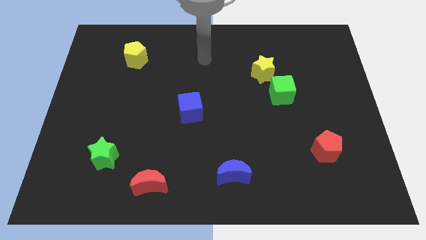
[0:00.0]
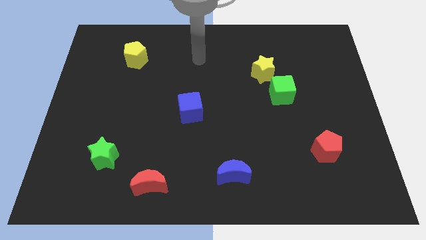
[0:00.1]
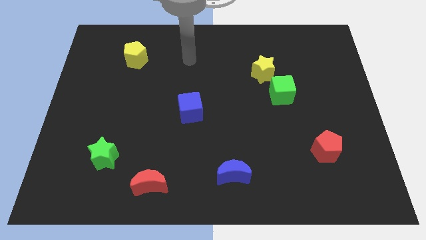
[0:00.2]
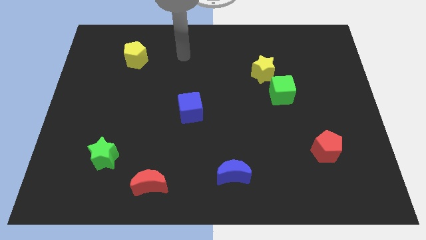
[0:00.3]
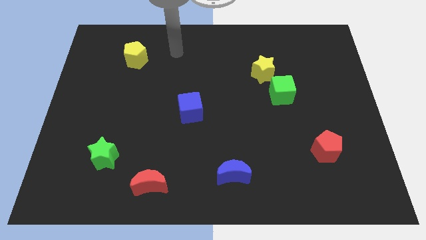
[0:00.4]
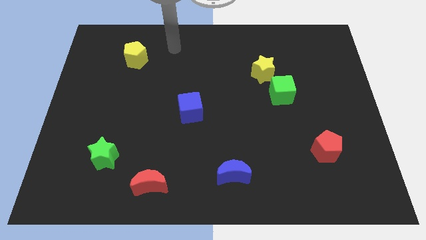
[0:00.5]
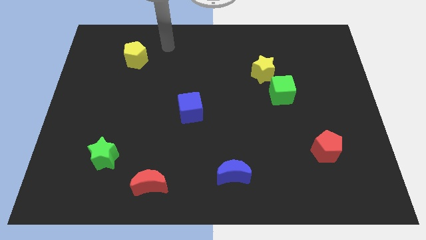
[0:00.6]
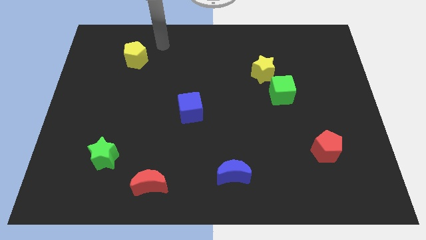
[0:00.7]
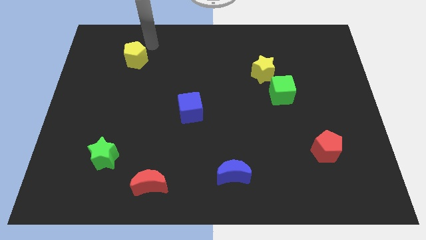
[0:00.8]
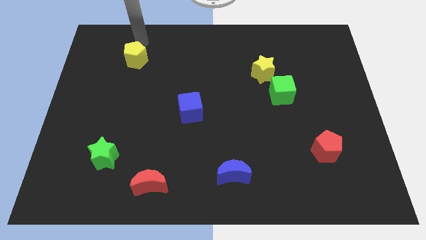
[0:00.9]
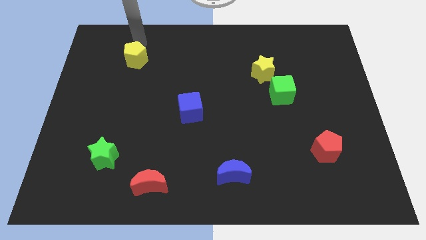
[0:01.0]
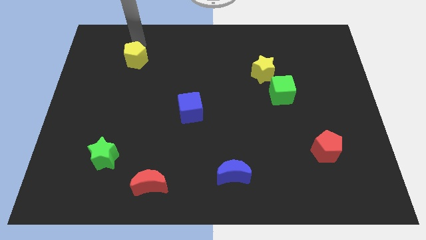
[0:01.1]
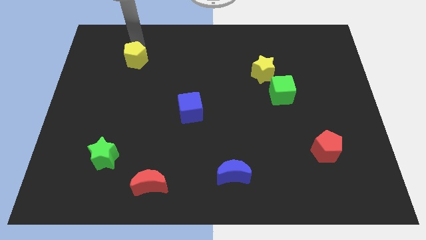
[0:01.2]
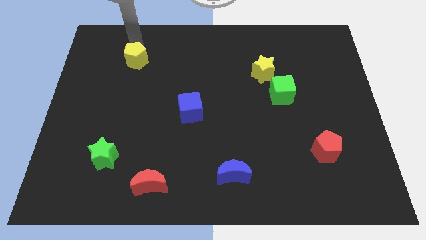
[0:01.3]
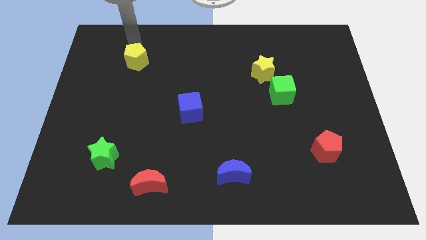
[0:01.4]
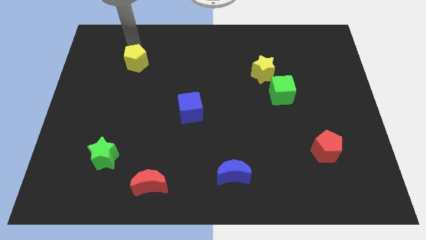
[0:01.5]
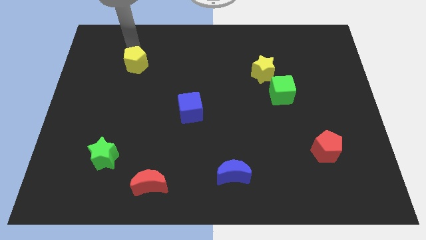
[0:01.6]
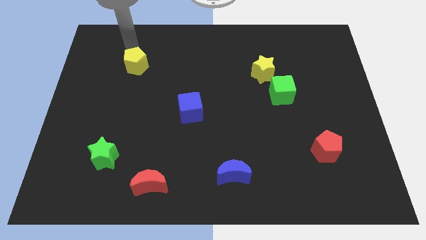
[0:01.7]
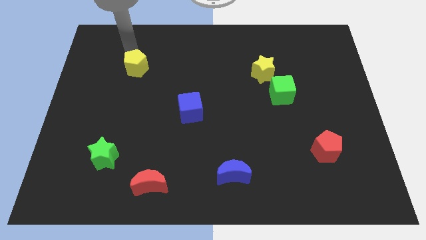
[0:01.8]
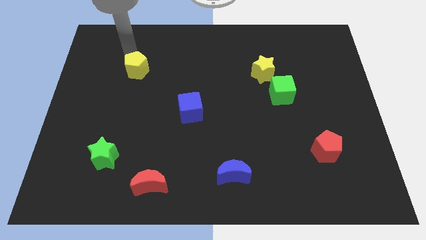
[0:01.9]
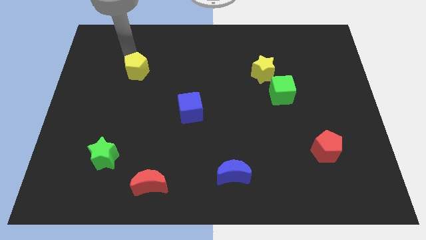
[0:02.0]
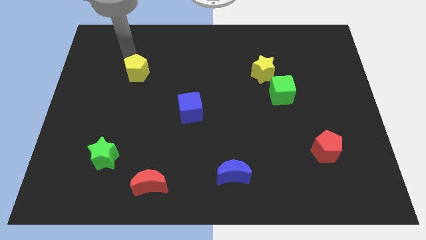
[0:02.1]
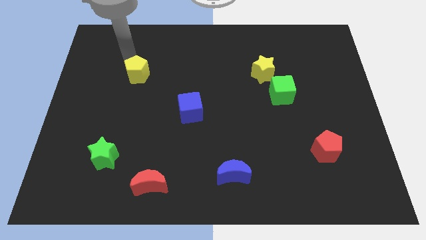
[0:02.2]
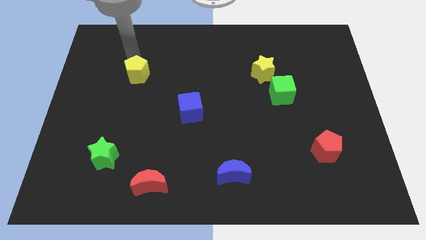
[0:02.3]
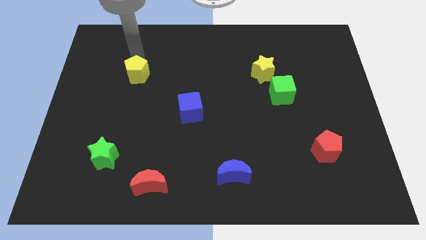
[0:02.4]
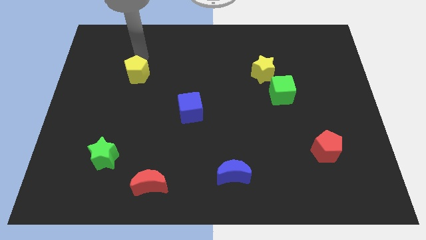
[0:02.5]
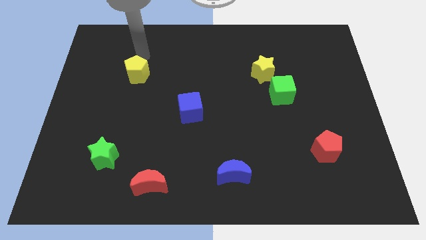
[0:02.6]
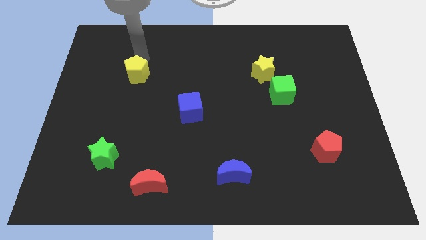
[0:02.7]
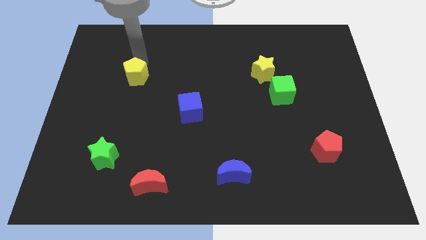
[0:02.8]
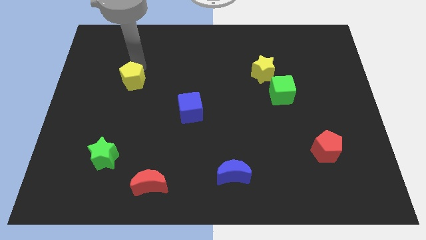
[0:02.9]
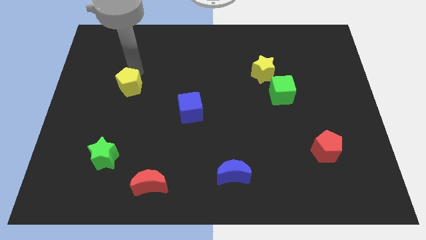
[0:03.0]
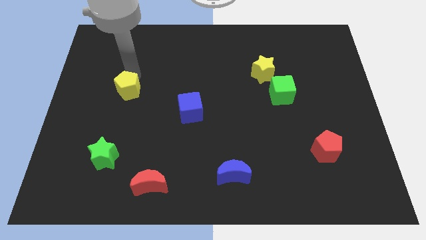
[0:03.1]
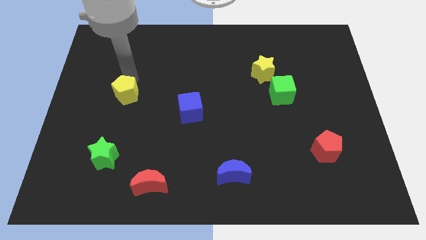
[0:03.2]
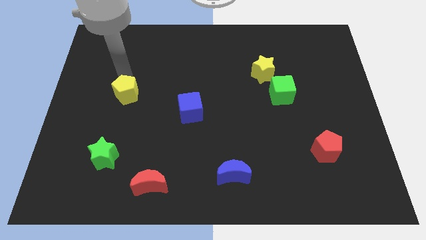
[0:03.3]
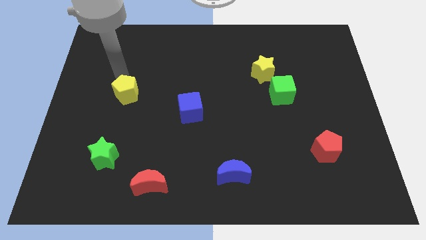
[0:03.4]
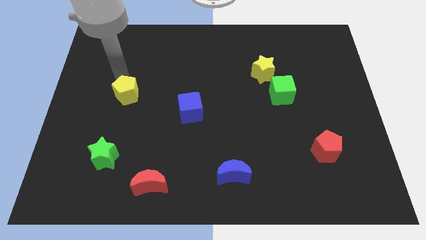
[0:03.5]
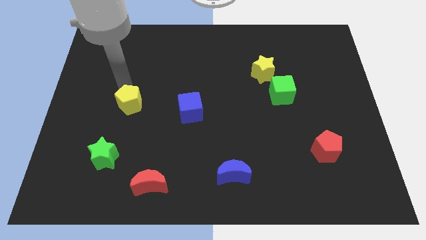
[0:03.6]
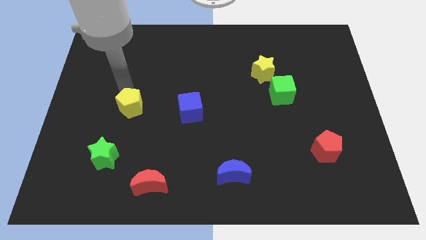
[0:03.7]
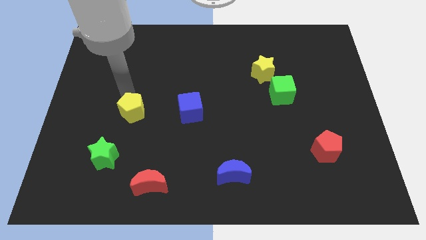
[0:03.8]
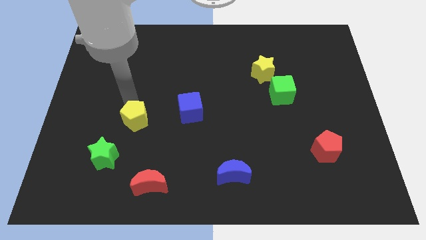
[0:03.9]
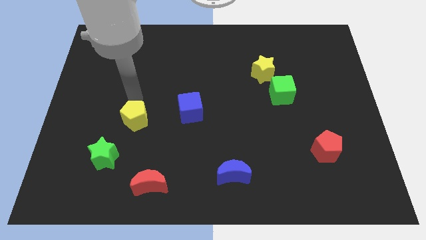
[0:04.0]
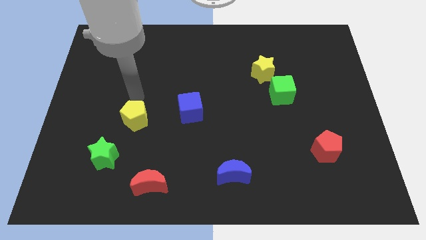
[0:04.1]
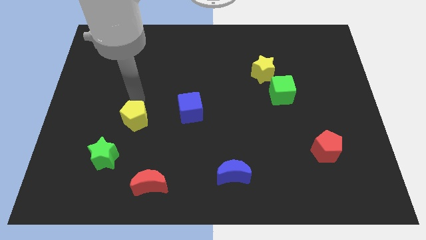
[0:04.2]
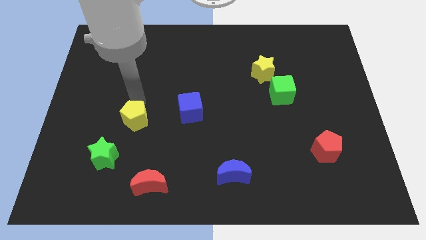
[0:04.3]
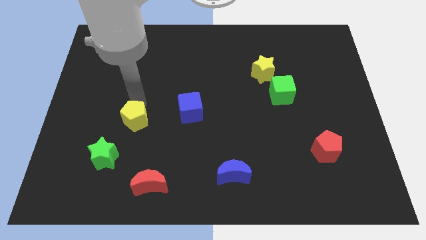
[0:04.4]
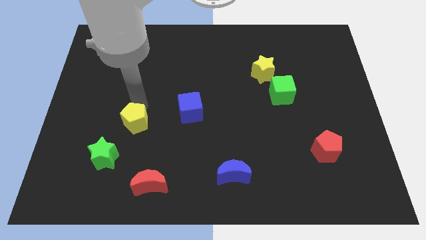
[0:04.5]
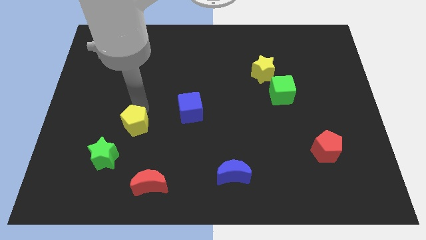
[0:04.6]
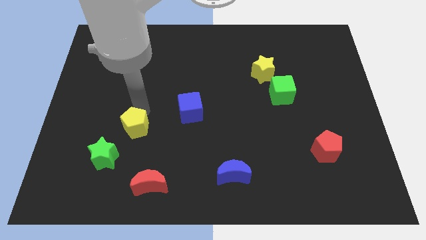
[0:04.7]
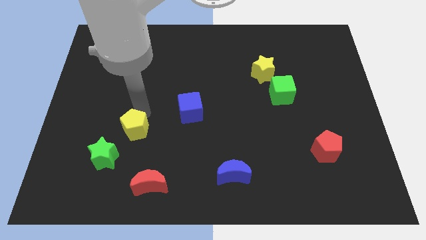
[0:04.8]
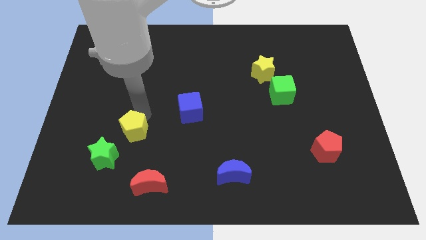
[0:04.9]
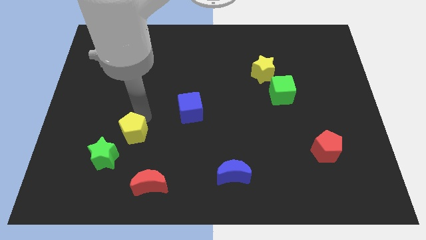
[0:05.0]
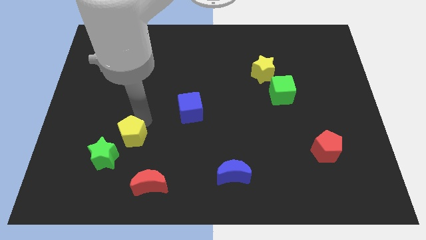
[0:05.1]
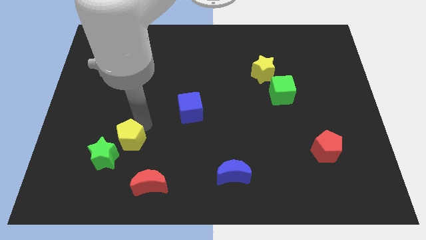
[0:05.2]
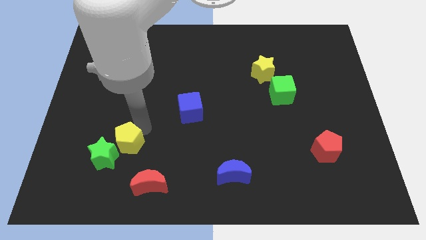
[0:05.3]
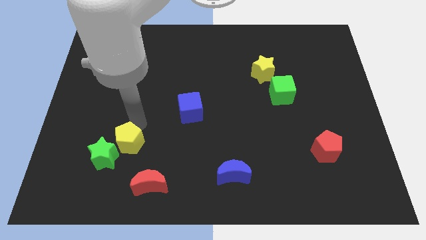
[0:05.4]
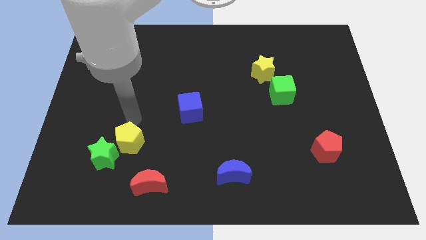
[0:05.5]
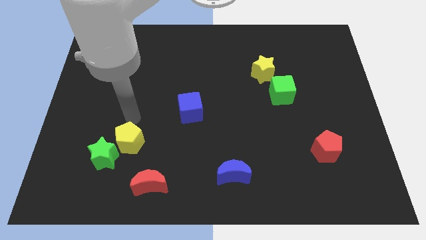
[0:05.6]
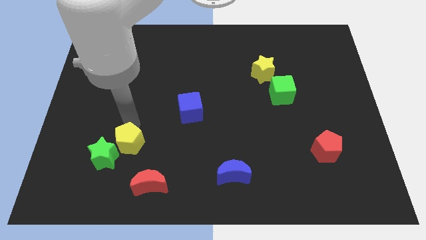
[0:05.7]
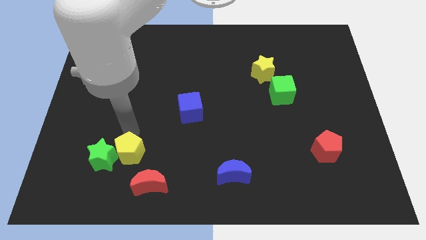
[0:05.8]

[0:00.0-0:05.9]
move the yellow pentagon diagonally down and to the right of the green star

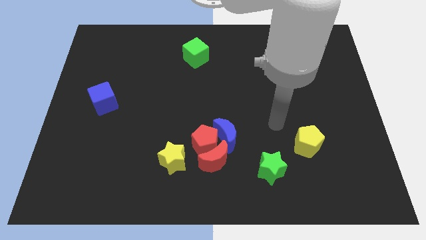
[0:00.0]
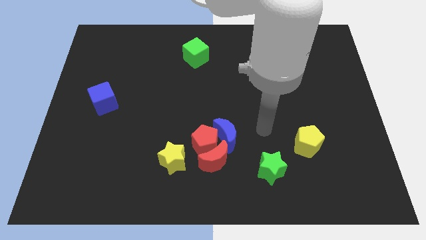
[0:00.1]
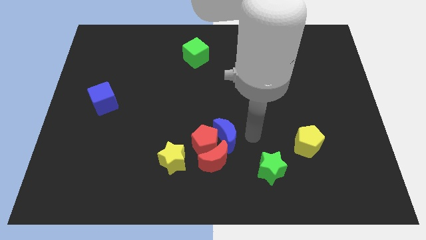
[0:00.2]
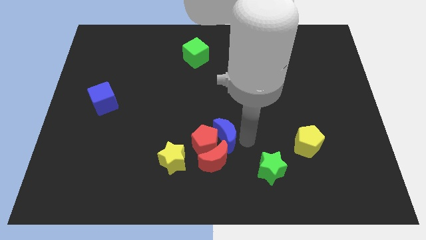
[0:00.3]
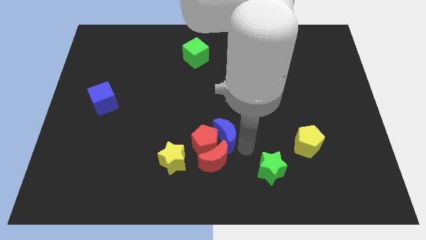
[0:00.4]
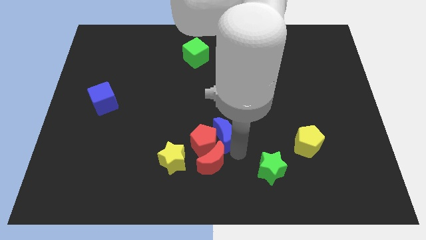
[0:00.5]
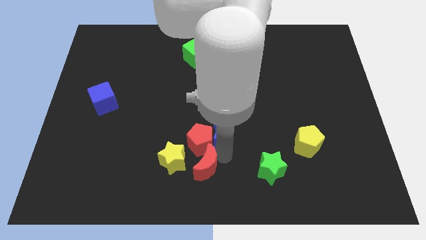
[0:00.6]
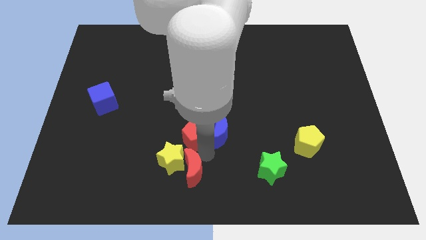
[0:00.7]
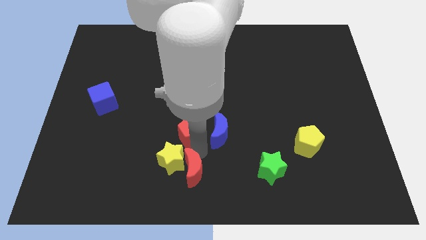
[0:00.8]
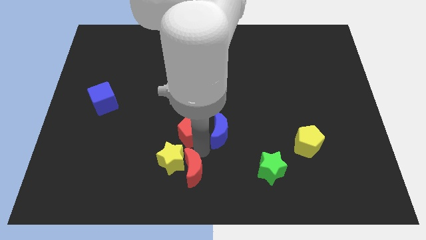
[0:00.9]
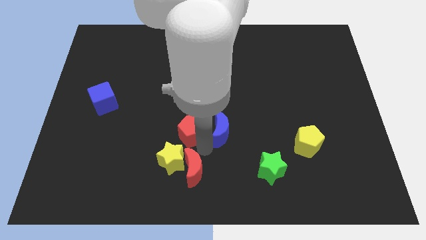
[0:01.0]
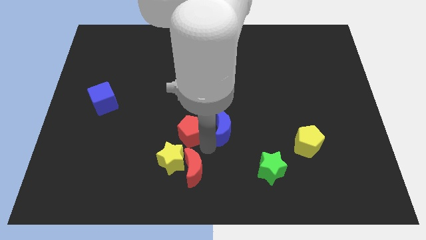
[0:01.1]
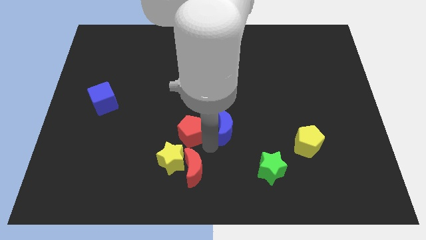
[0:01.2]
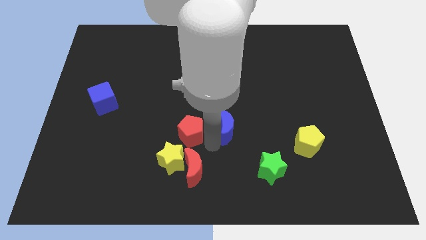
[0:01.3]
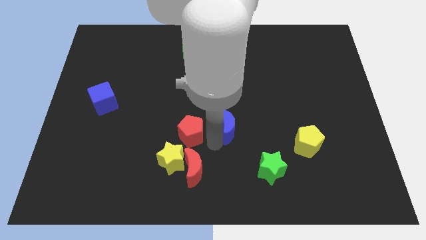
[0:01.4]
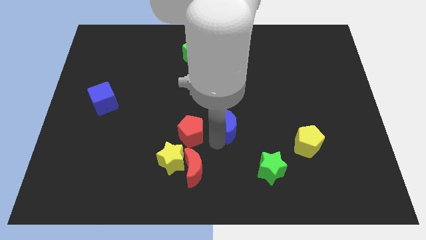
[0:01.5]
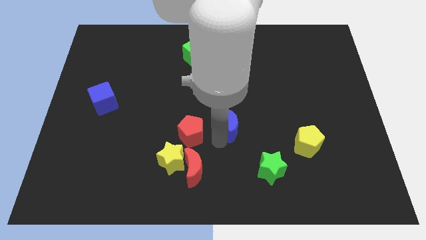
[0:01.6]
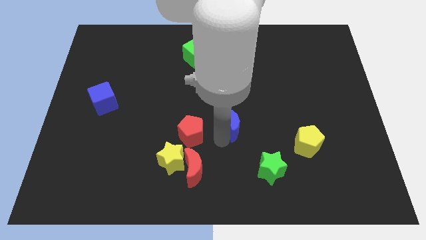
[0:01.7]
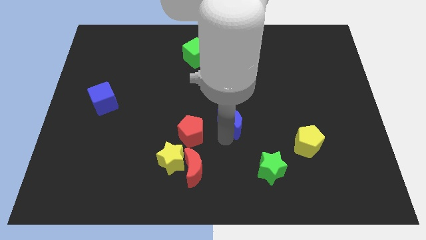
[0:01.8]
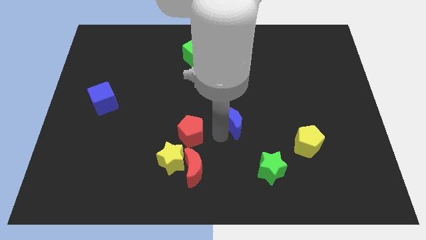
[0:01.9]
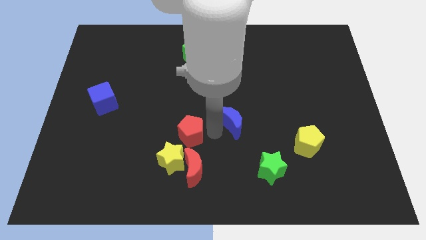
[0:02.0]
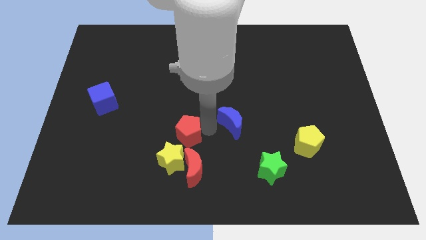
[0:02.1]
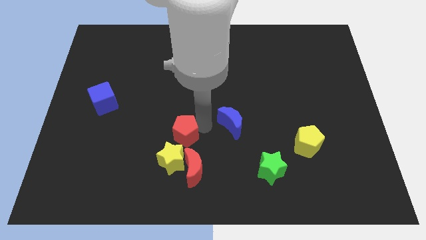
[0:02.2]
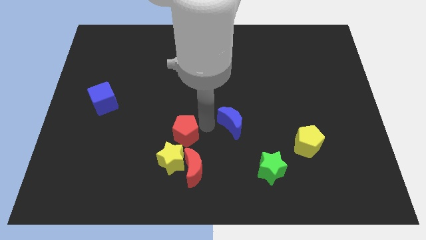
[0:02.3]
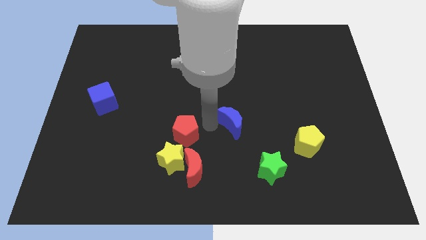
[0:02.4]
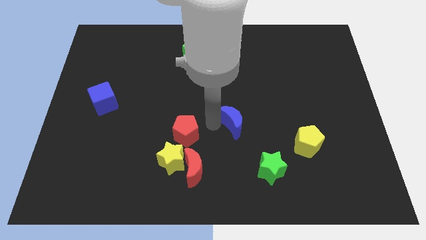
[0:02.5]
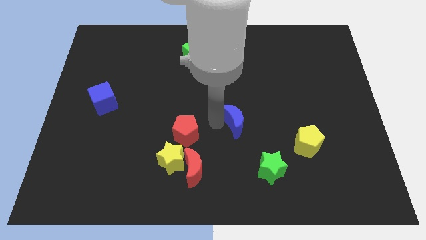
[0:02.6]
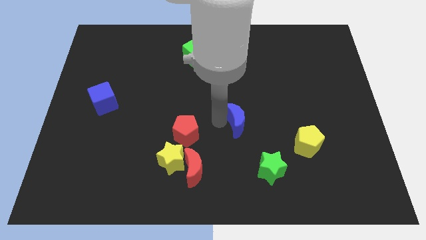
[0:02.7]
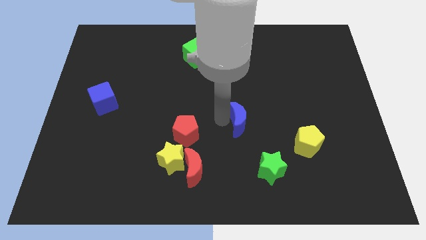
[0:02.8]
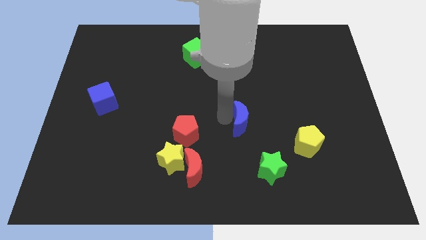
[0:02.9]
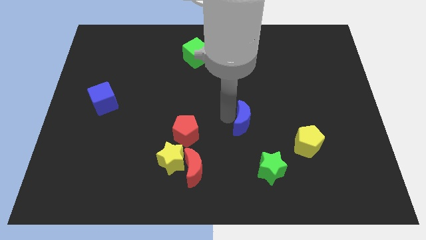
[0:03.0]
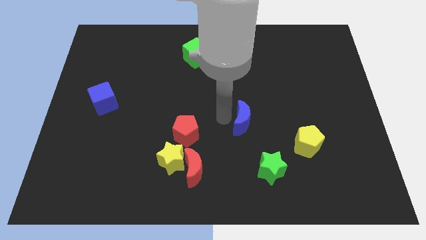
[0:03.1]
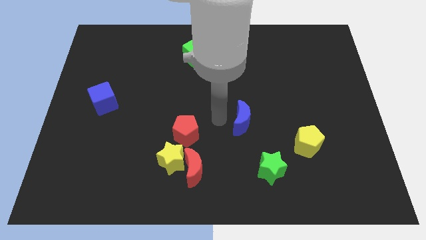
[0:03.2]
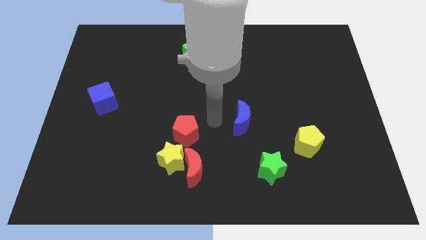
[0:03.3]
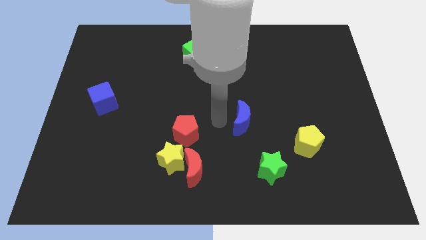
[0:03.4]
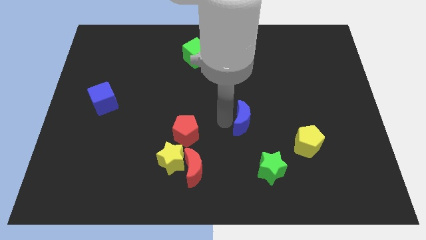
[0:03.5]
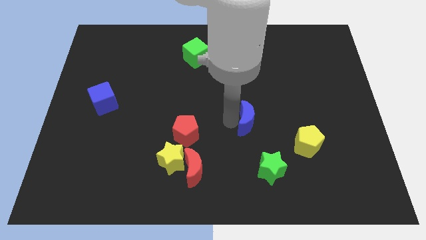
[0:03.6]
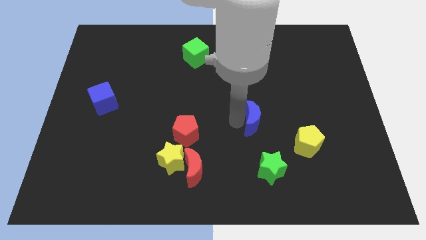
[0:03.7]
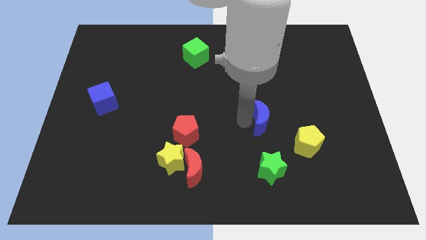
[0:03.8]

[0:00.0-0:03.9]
move the blue moon diagonally up and to the left of the yellow pentagon
